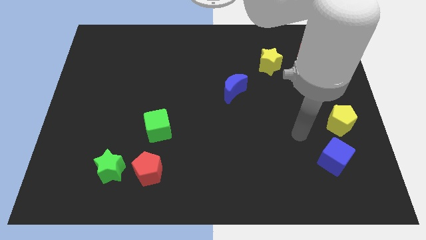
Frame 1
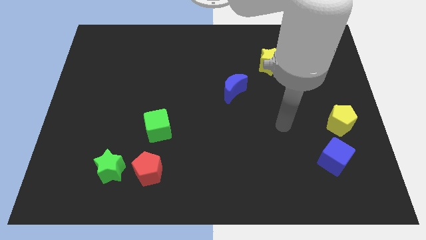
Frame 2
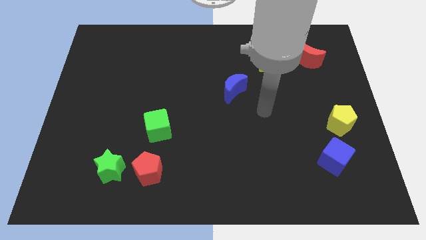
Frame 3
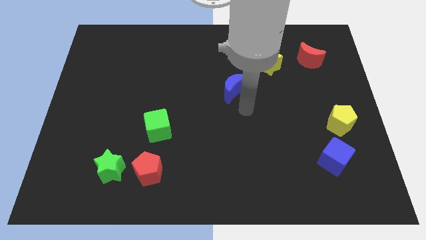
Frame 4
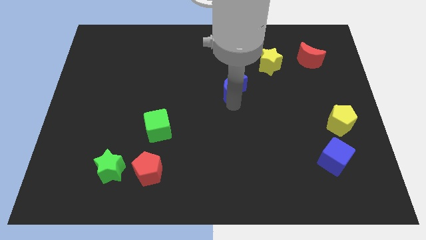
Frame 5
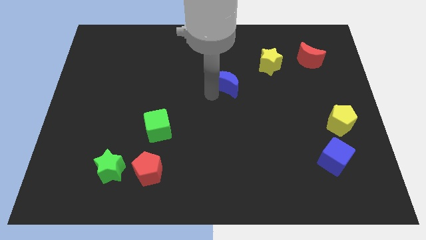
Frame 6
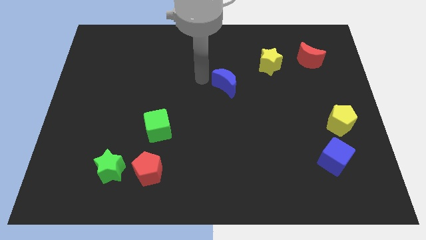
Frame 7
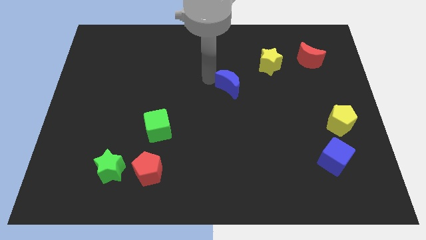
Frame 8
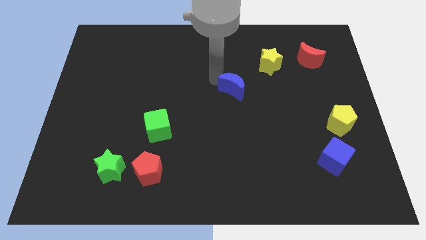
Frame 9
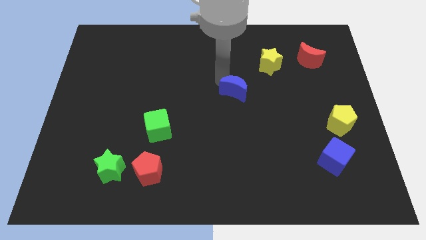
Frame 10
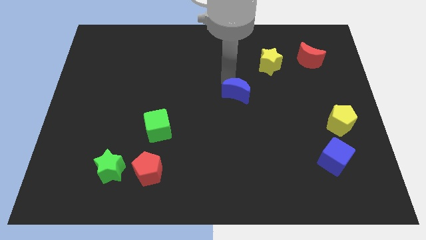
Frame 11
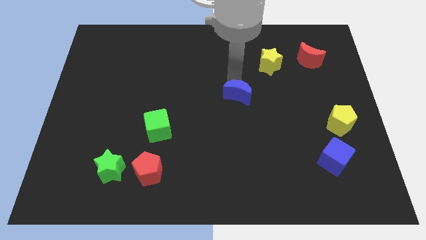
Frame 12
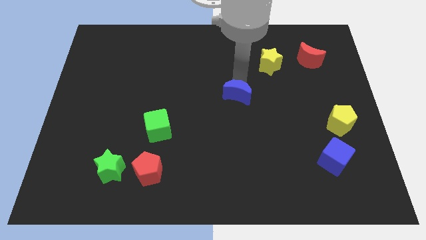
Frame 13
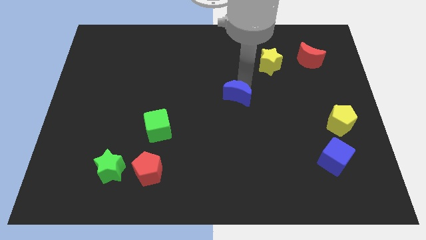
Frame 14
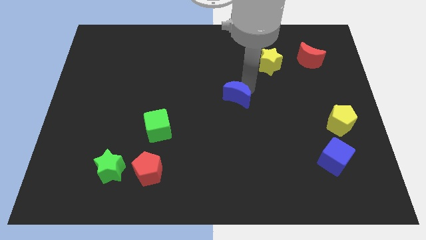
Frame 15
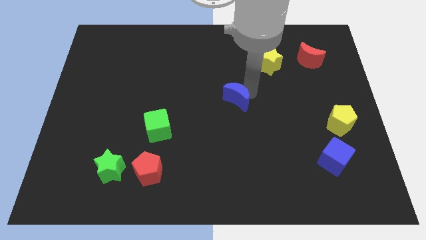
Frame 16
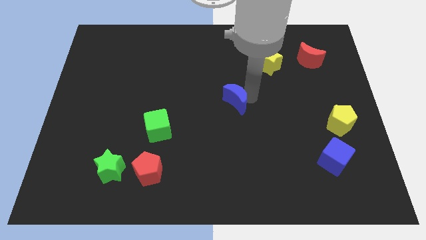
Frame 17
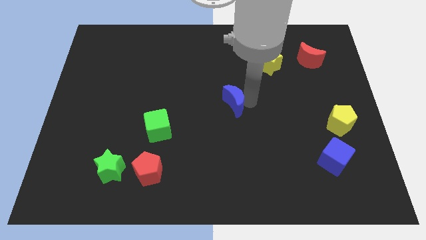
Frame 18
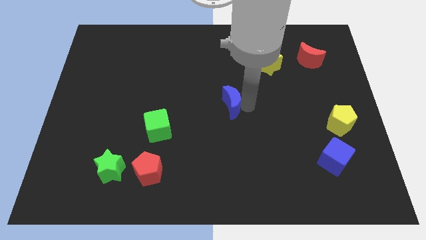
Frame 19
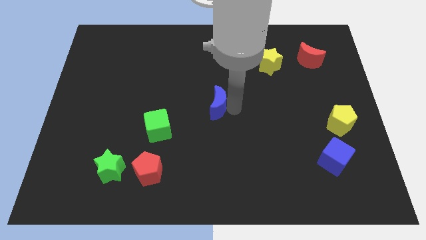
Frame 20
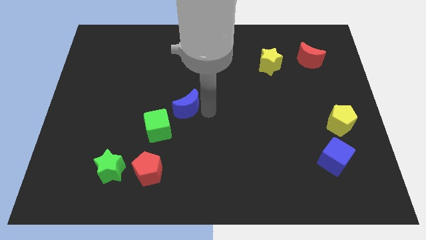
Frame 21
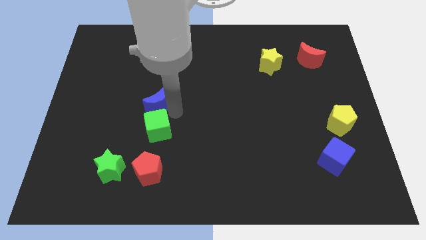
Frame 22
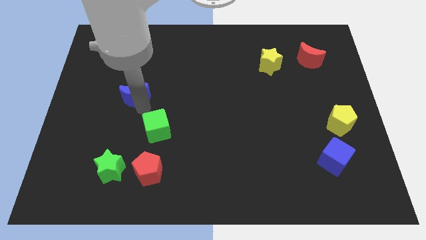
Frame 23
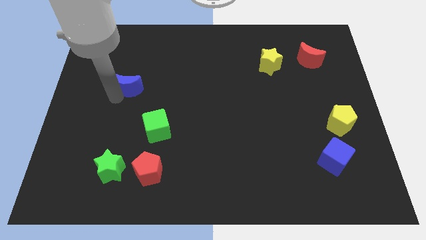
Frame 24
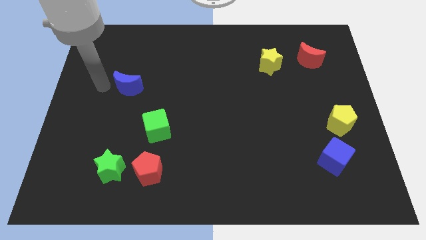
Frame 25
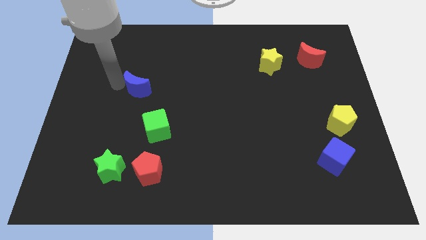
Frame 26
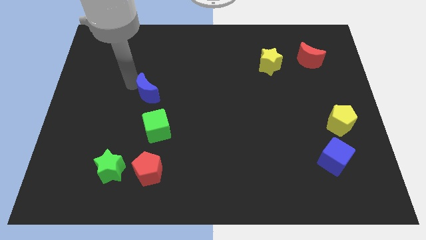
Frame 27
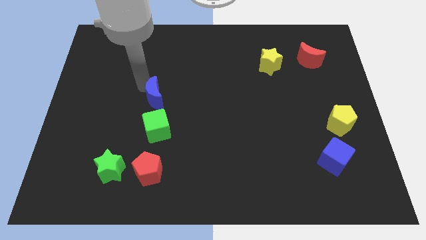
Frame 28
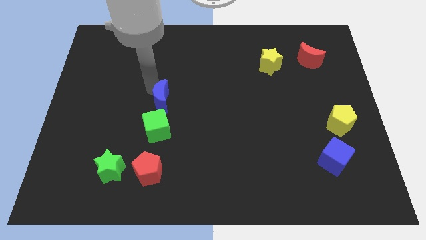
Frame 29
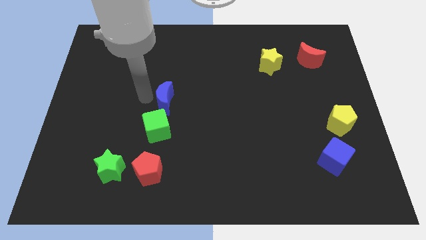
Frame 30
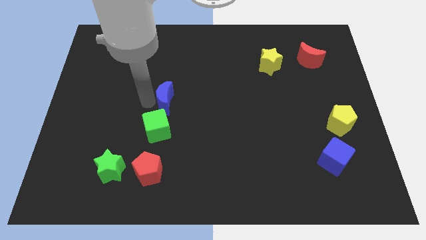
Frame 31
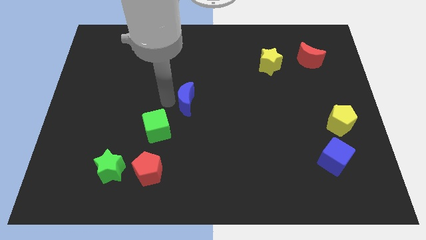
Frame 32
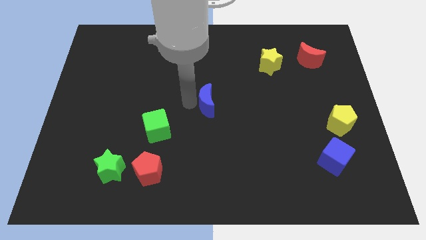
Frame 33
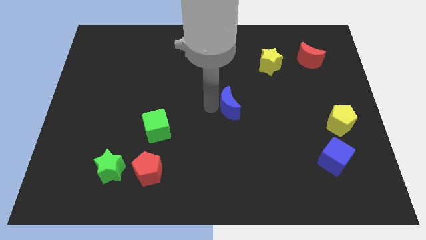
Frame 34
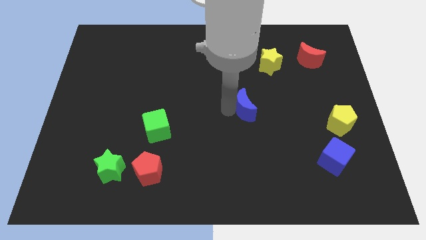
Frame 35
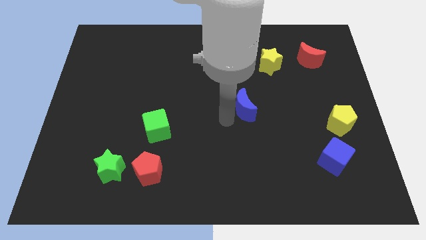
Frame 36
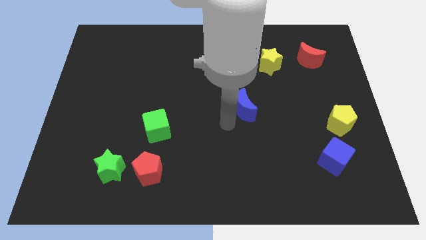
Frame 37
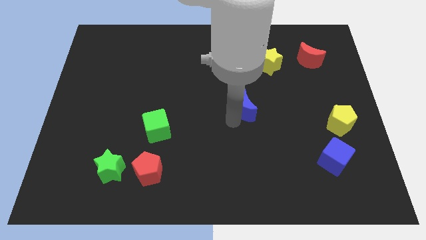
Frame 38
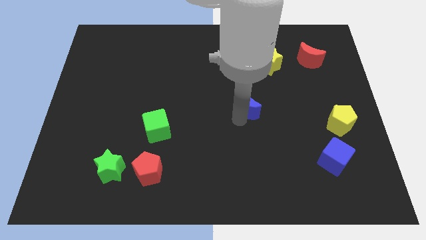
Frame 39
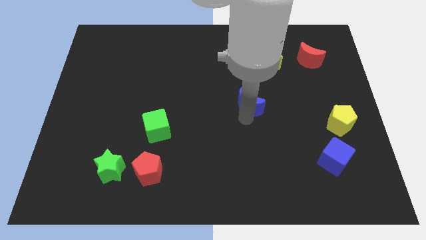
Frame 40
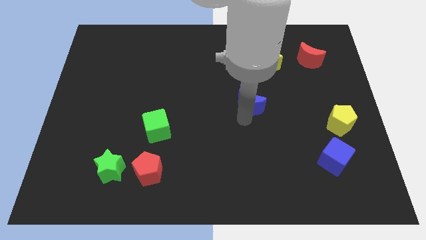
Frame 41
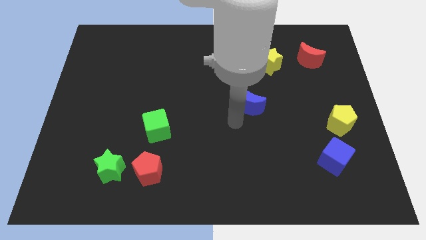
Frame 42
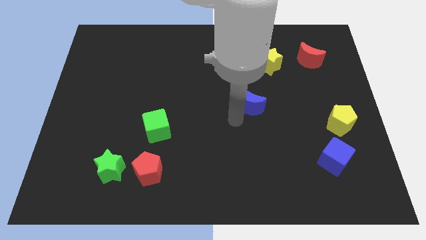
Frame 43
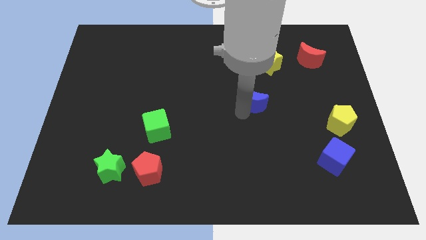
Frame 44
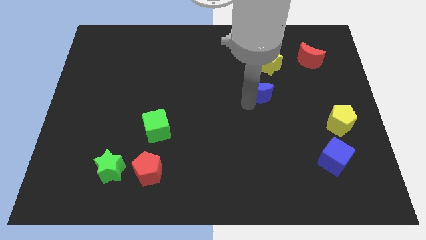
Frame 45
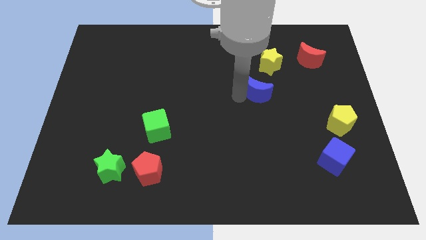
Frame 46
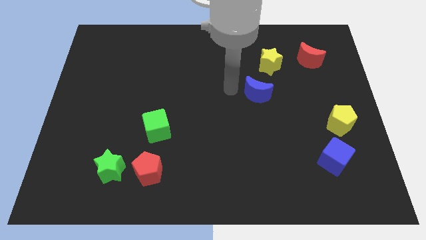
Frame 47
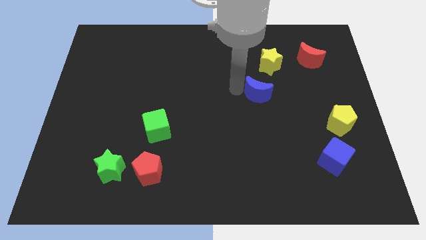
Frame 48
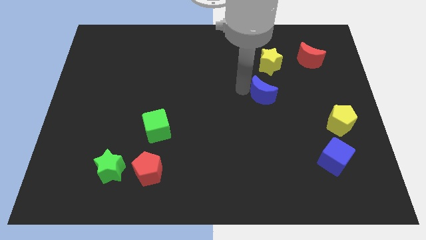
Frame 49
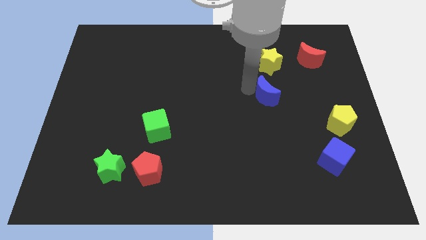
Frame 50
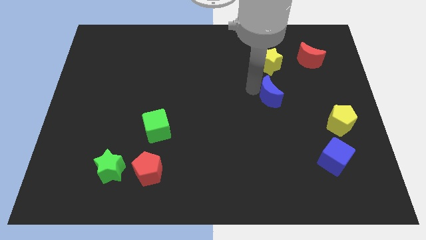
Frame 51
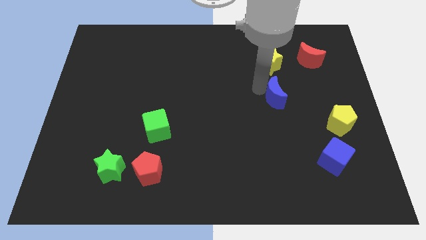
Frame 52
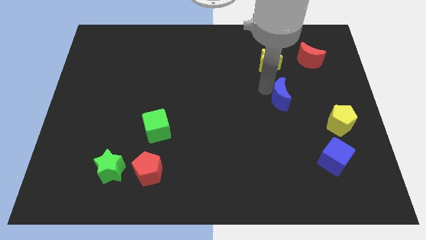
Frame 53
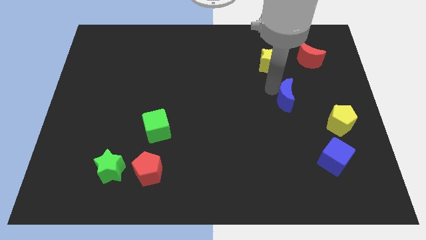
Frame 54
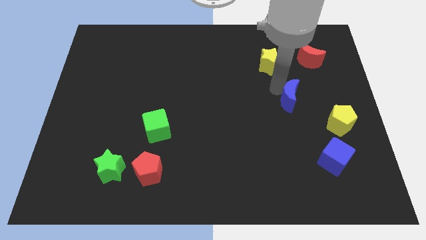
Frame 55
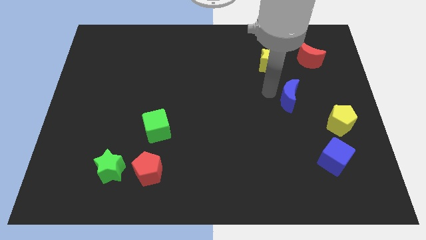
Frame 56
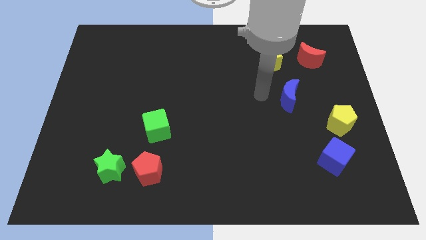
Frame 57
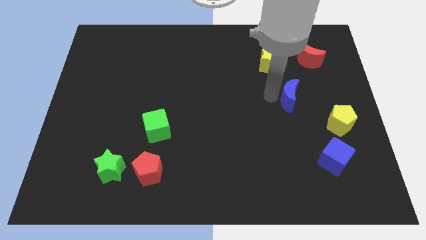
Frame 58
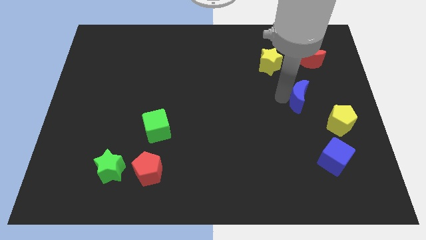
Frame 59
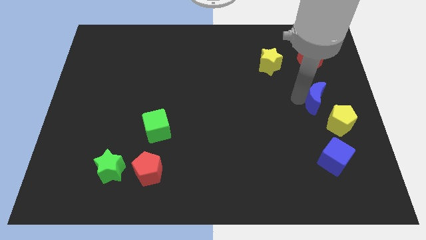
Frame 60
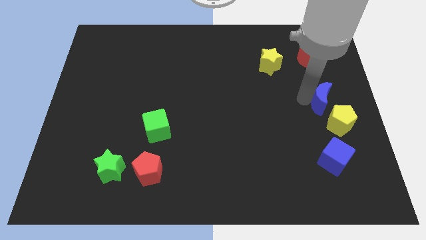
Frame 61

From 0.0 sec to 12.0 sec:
slide the blue moon to the right side of the board

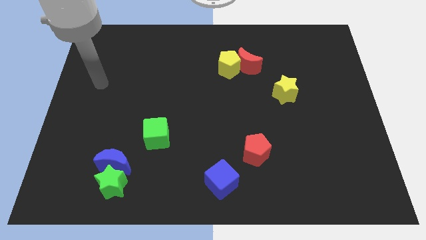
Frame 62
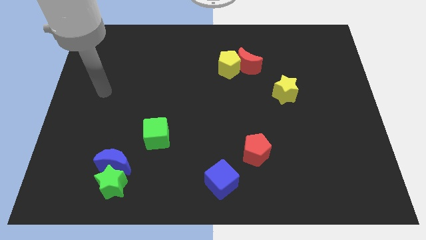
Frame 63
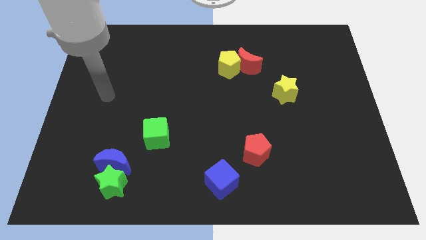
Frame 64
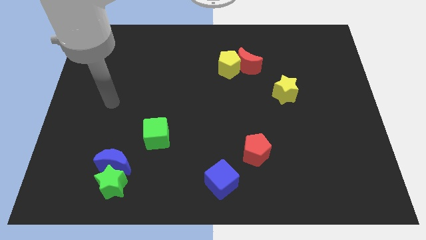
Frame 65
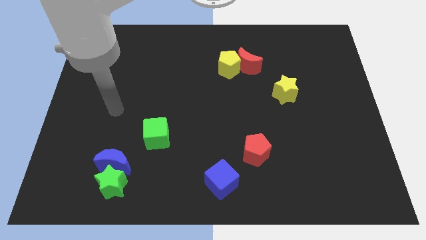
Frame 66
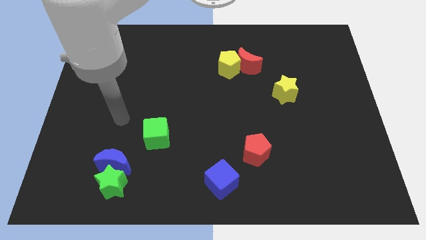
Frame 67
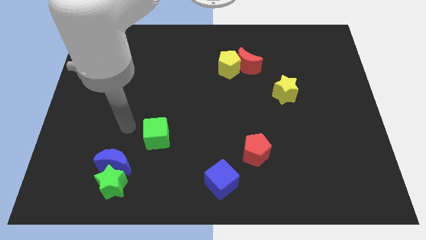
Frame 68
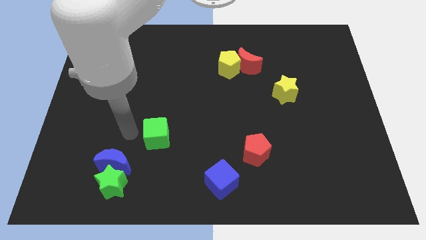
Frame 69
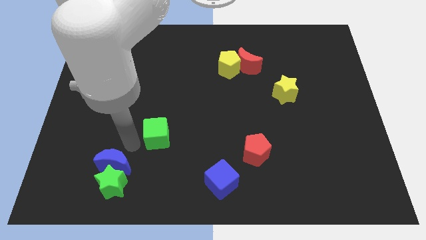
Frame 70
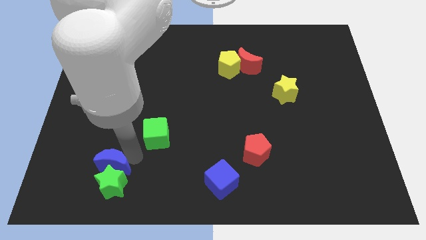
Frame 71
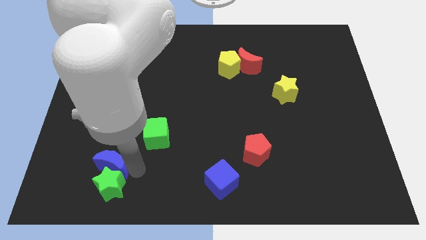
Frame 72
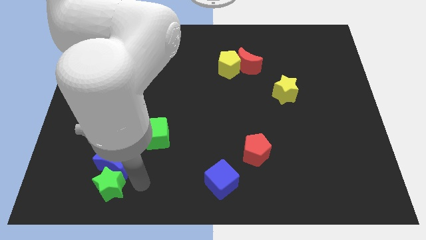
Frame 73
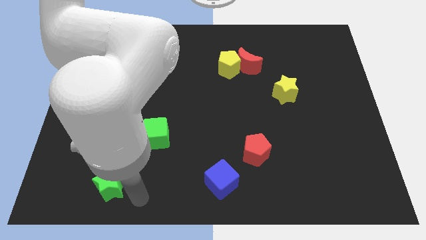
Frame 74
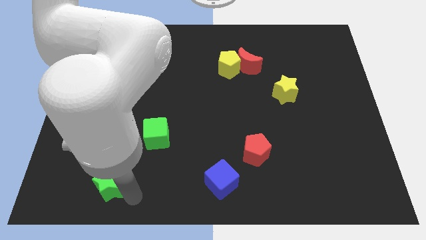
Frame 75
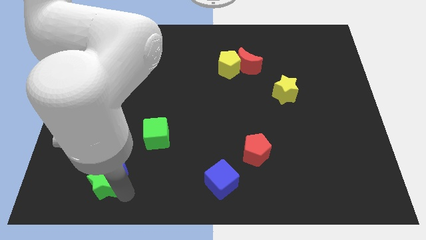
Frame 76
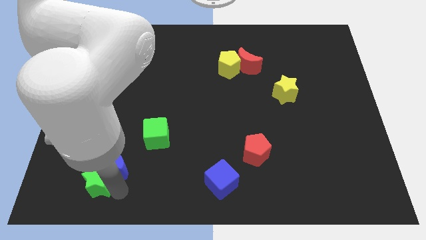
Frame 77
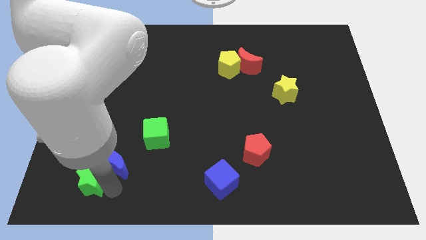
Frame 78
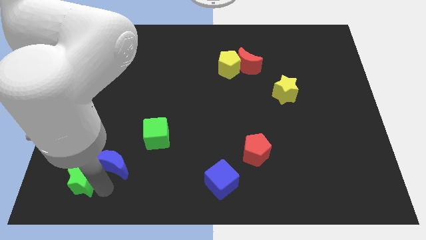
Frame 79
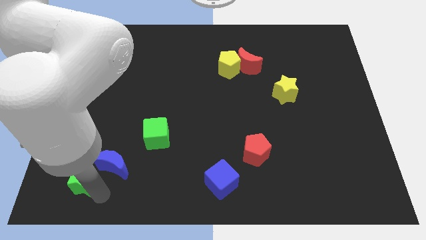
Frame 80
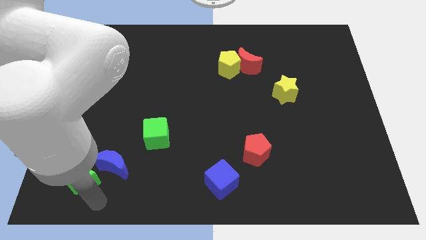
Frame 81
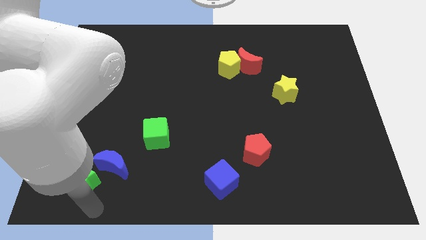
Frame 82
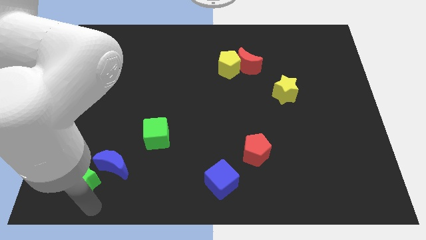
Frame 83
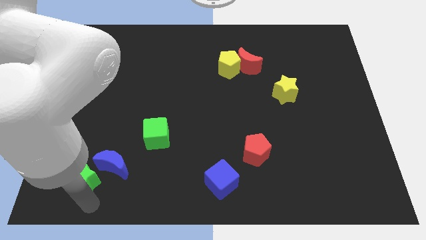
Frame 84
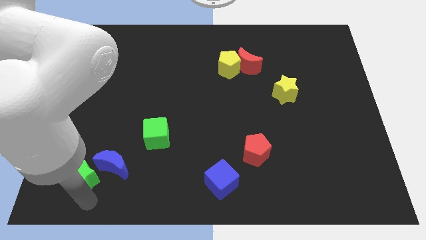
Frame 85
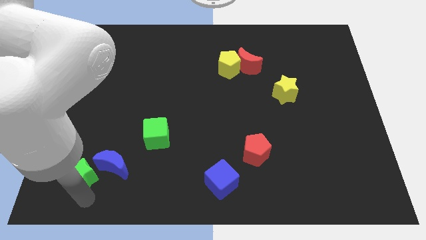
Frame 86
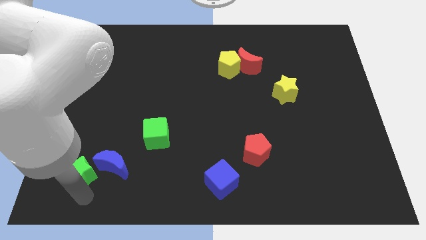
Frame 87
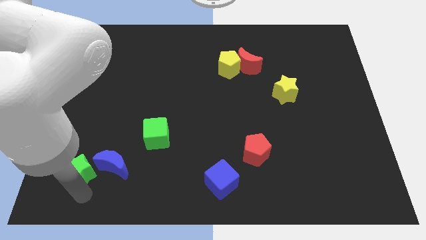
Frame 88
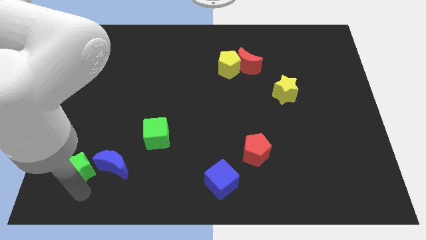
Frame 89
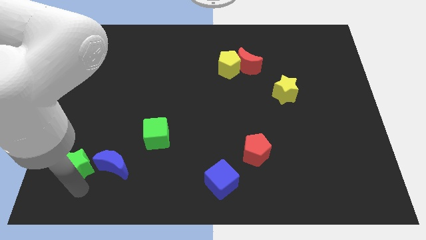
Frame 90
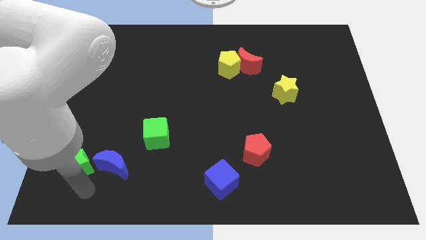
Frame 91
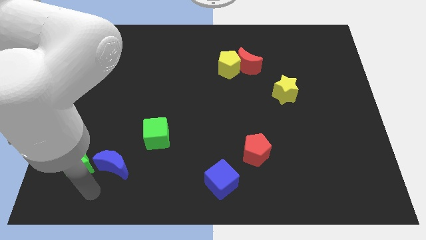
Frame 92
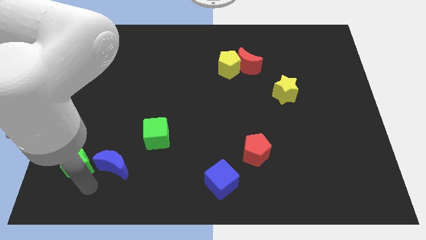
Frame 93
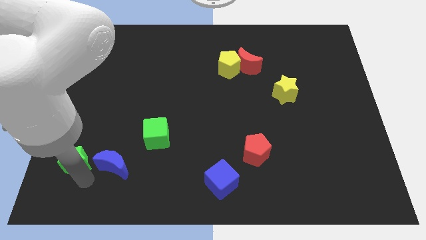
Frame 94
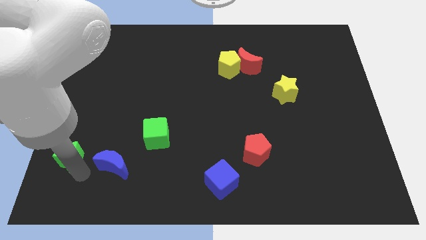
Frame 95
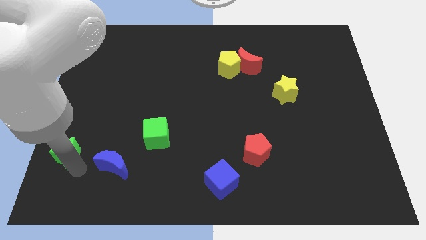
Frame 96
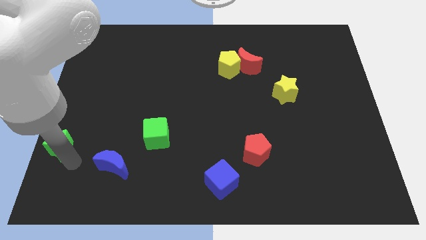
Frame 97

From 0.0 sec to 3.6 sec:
push the green star to the center left
